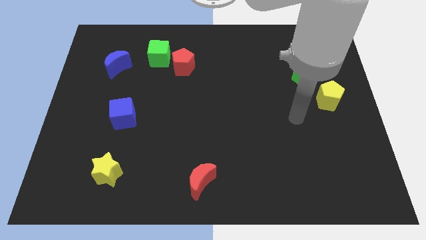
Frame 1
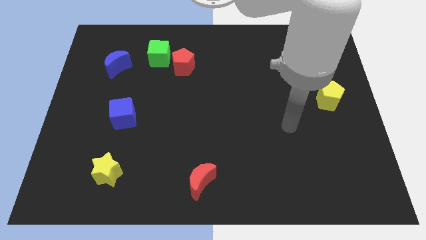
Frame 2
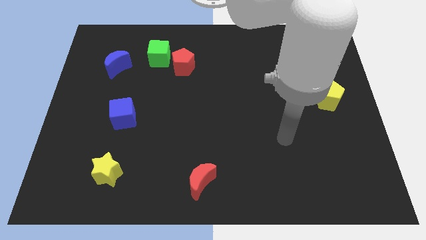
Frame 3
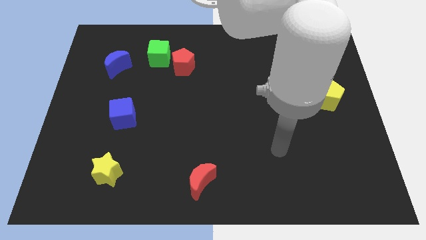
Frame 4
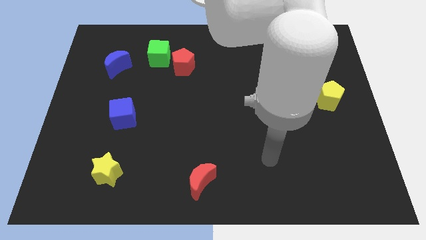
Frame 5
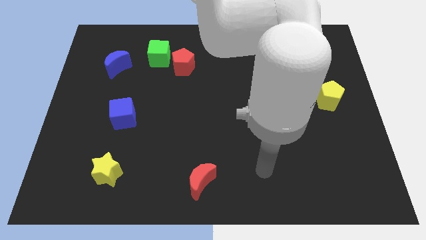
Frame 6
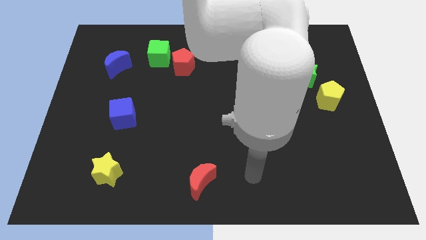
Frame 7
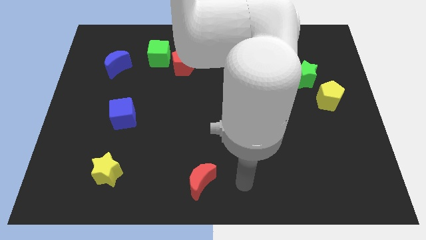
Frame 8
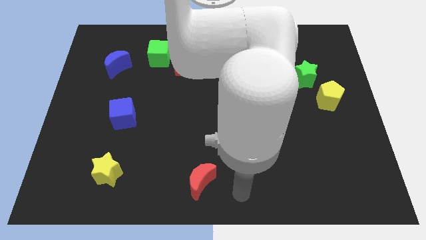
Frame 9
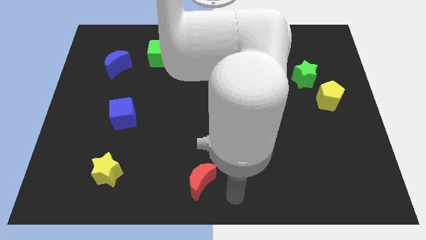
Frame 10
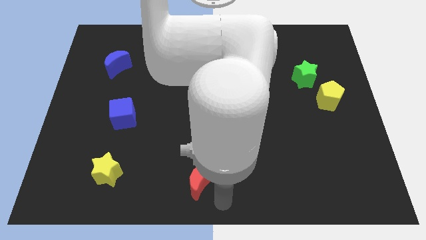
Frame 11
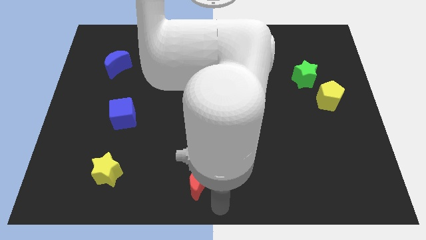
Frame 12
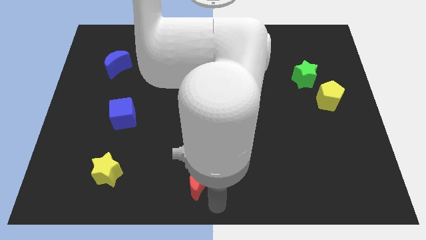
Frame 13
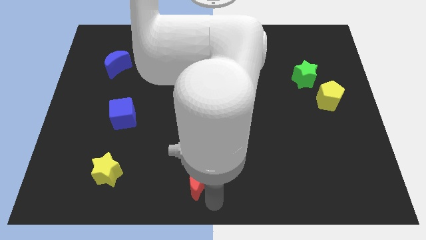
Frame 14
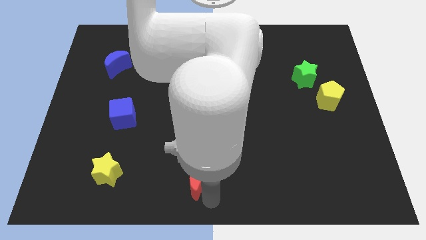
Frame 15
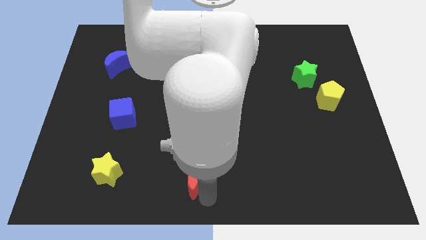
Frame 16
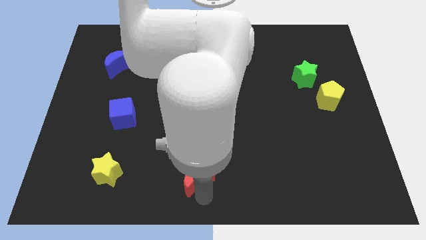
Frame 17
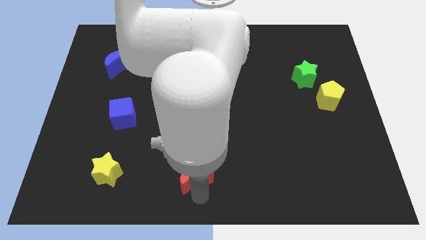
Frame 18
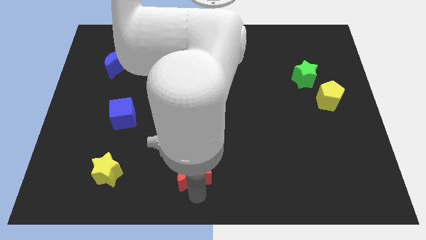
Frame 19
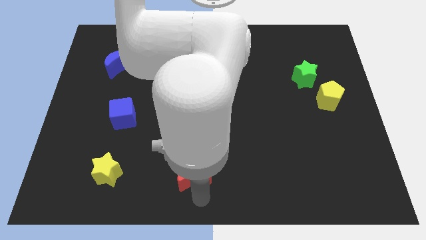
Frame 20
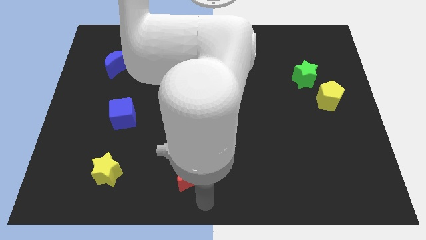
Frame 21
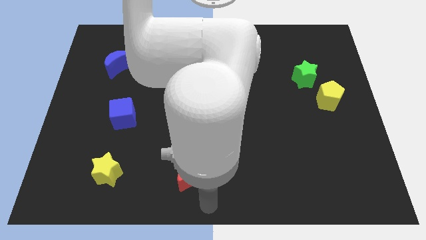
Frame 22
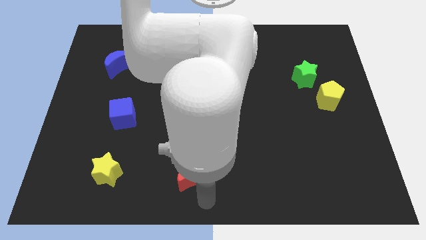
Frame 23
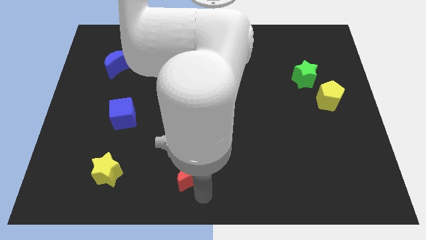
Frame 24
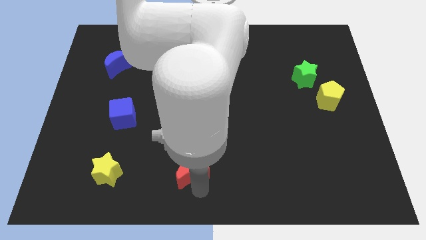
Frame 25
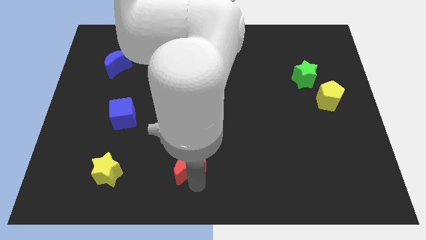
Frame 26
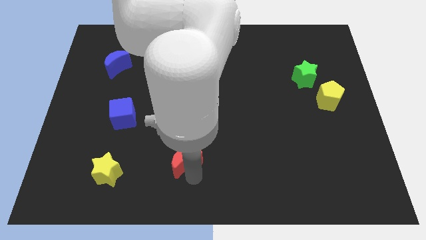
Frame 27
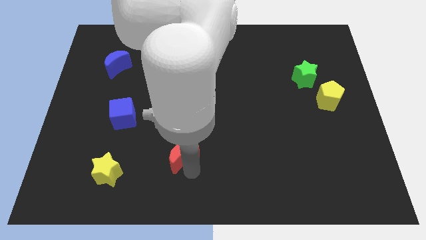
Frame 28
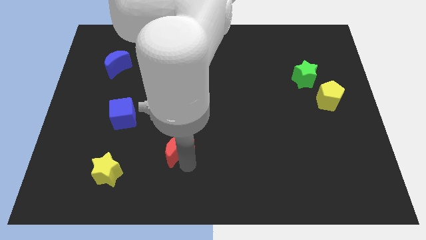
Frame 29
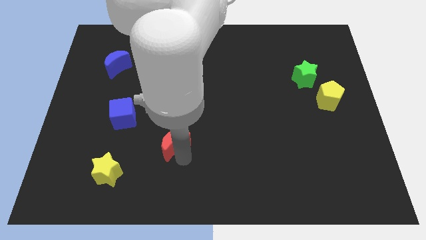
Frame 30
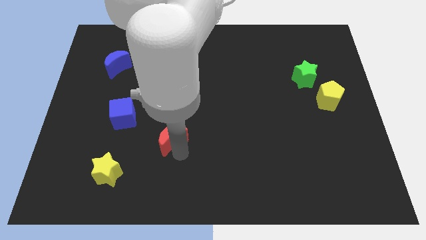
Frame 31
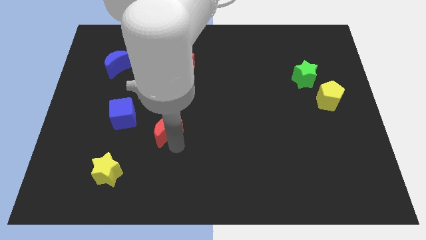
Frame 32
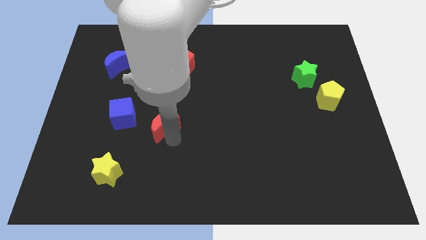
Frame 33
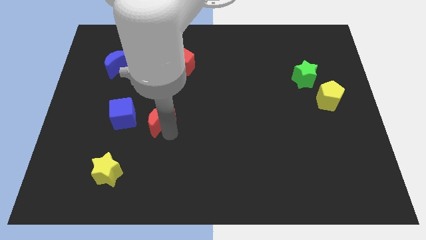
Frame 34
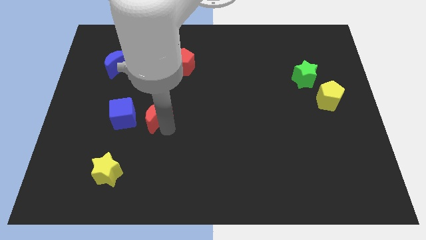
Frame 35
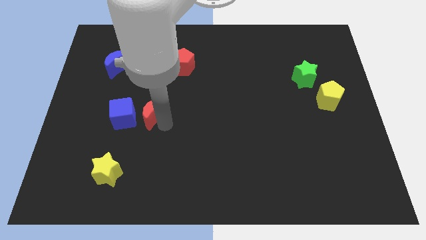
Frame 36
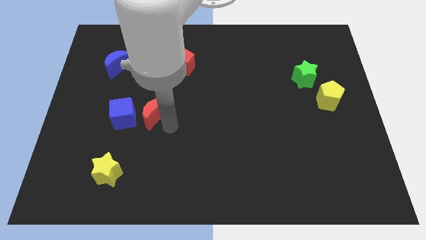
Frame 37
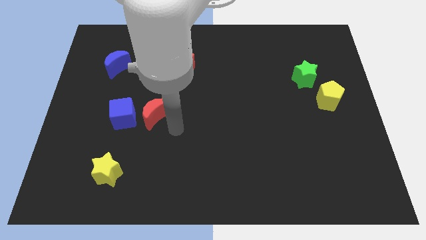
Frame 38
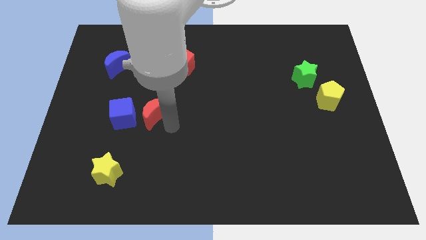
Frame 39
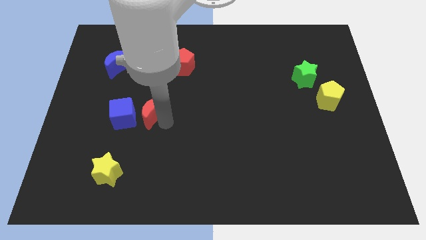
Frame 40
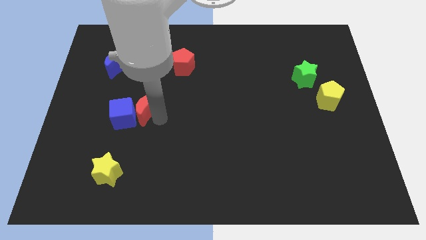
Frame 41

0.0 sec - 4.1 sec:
push the red moon upwards and to the left

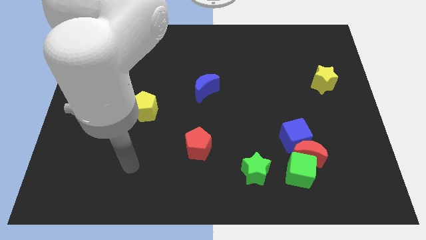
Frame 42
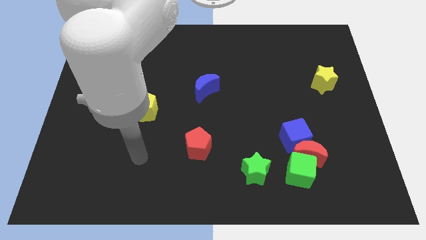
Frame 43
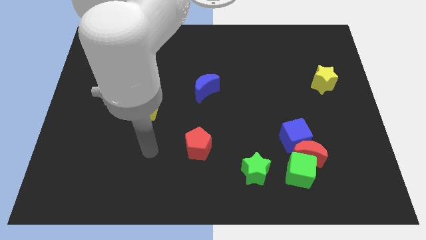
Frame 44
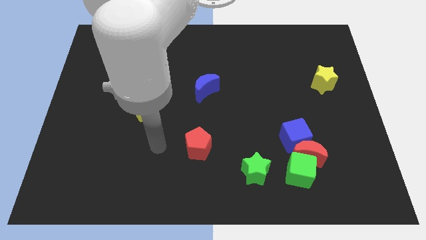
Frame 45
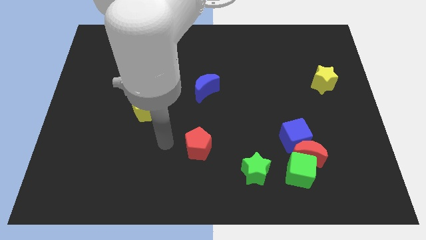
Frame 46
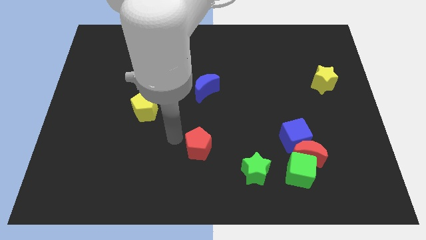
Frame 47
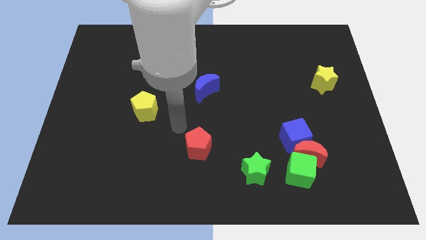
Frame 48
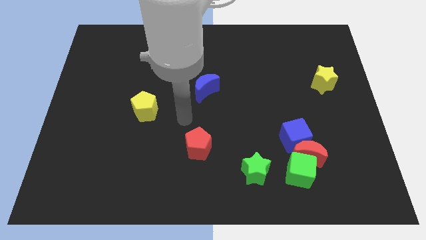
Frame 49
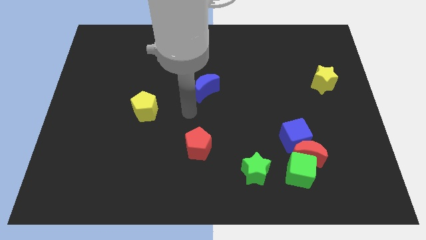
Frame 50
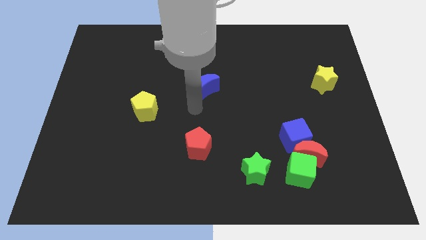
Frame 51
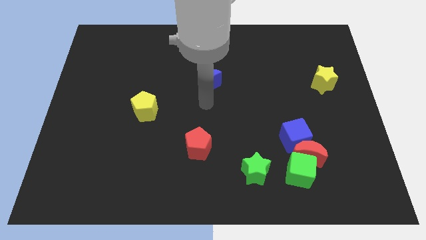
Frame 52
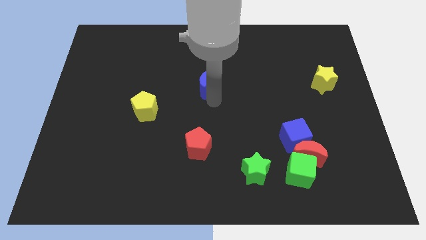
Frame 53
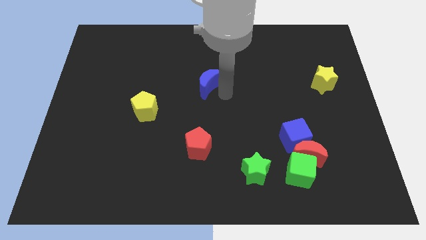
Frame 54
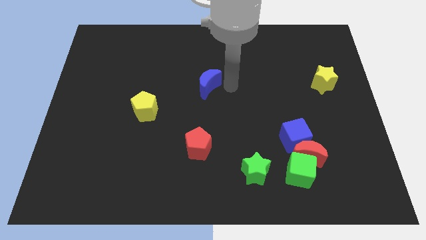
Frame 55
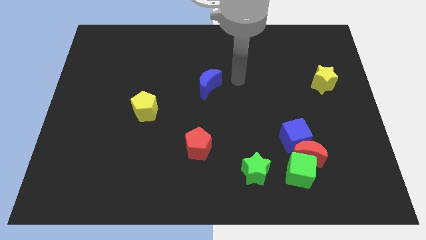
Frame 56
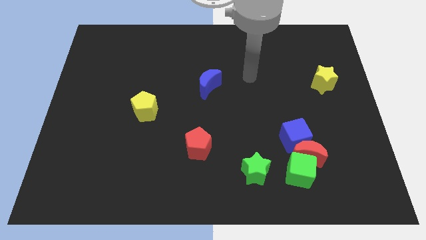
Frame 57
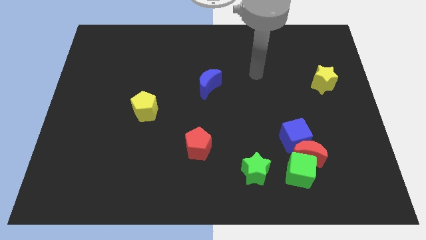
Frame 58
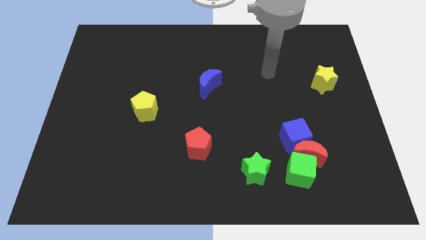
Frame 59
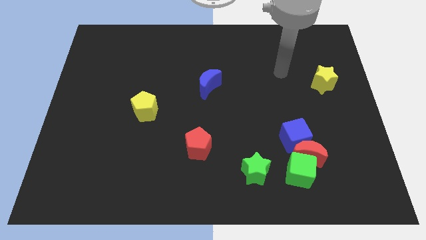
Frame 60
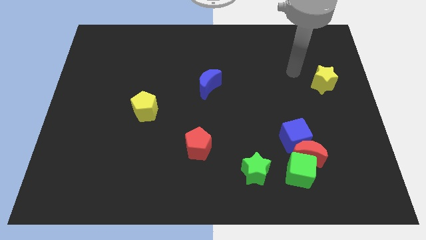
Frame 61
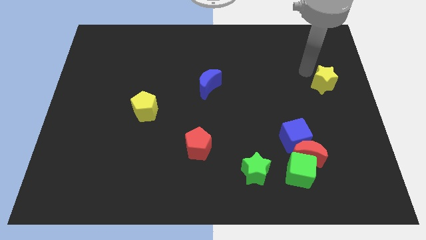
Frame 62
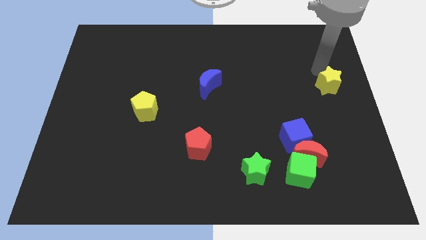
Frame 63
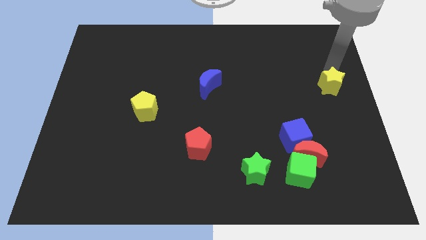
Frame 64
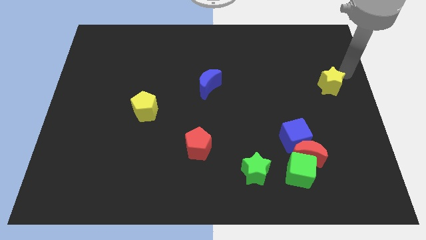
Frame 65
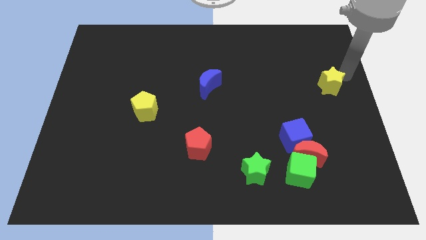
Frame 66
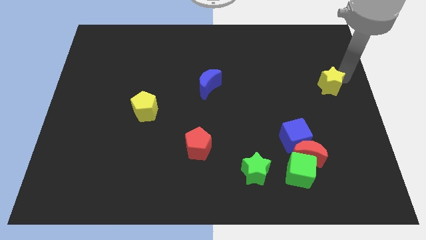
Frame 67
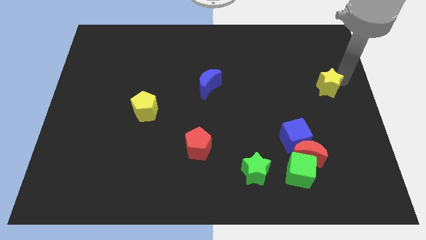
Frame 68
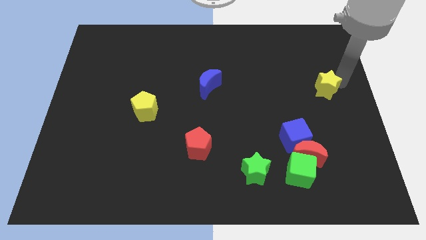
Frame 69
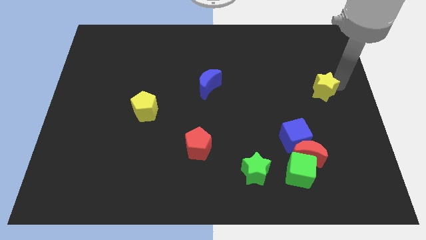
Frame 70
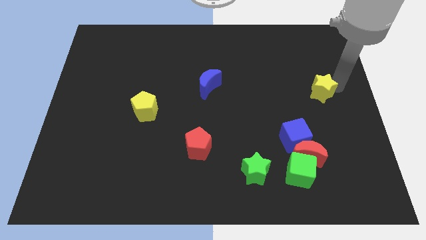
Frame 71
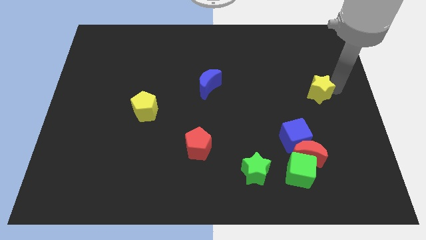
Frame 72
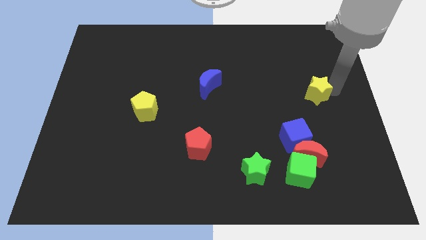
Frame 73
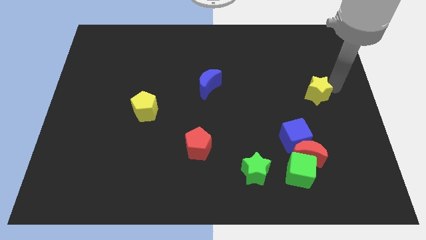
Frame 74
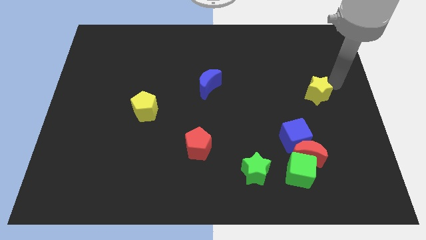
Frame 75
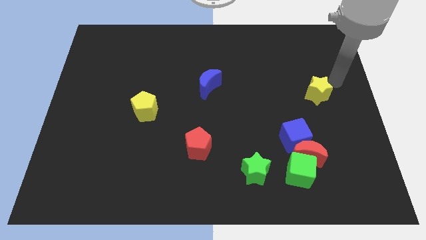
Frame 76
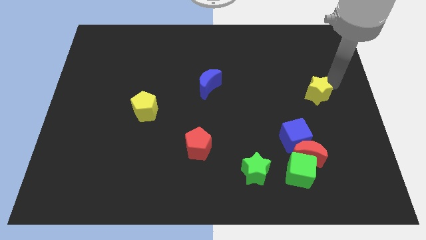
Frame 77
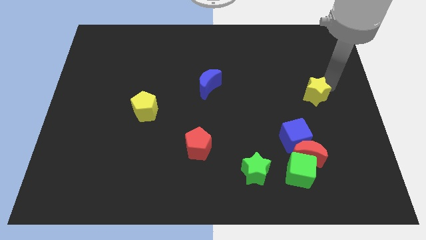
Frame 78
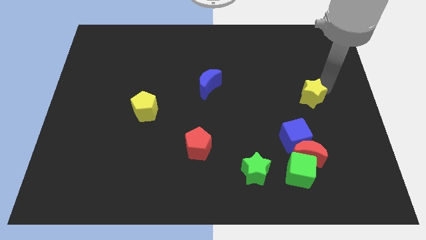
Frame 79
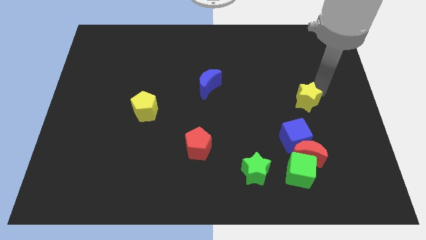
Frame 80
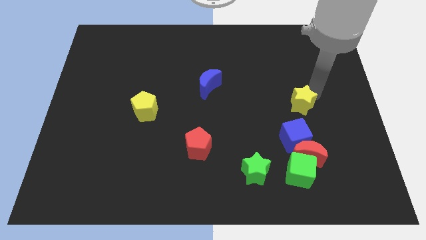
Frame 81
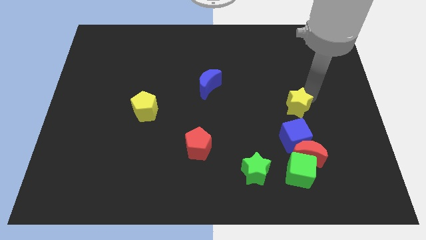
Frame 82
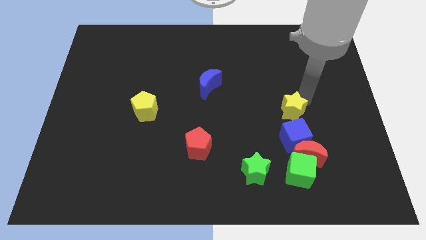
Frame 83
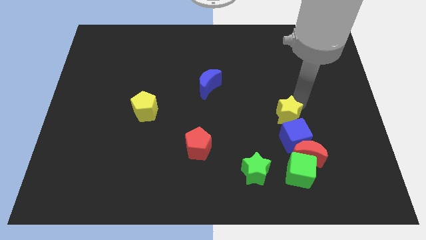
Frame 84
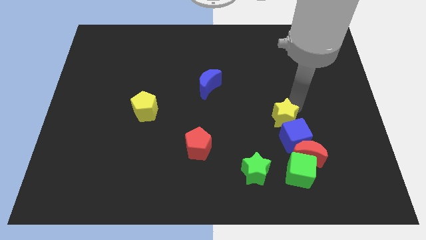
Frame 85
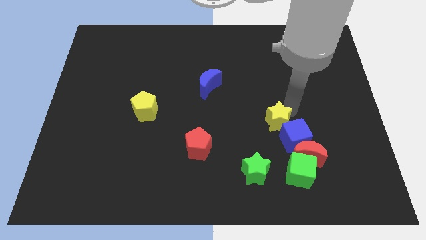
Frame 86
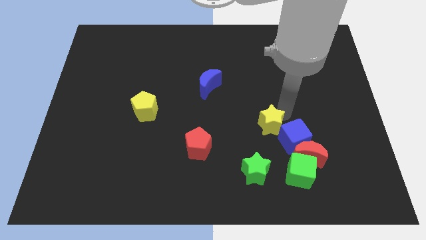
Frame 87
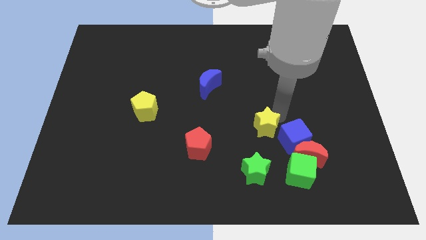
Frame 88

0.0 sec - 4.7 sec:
push the yellow star diagonally down and to the left
